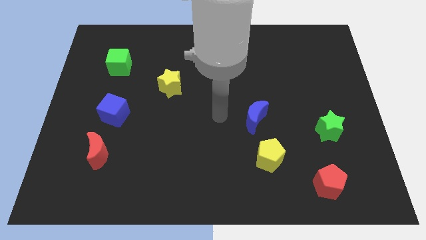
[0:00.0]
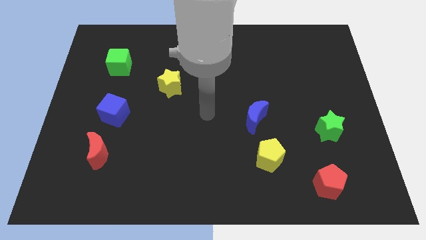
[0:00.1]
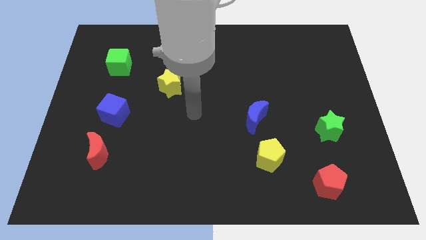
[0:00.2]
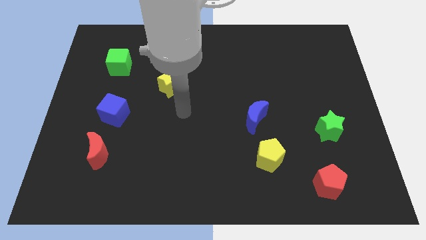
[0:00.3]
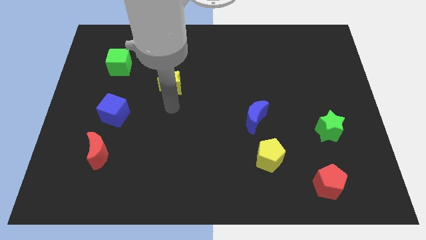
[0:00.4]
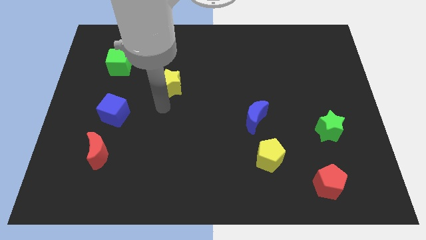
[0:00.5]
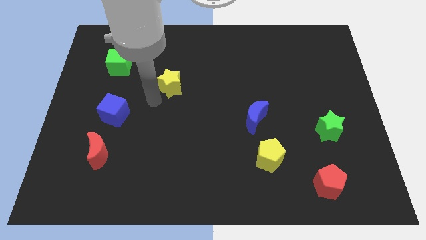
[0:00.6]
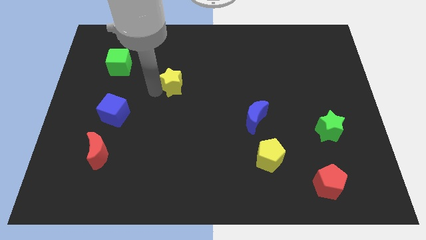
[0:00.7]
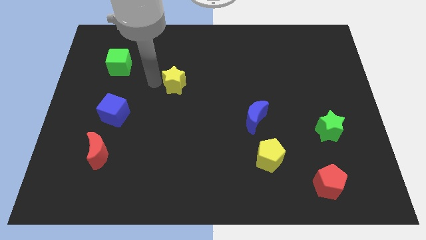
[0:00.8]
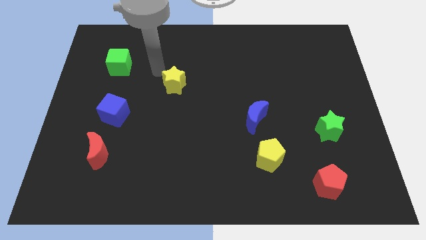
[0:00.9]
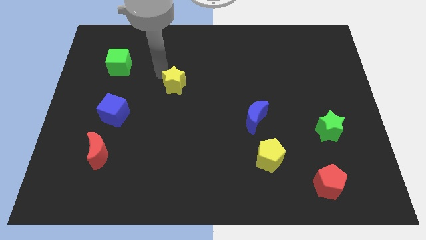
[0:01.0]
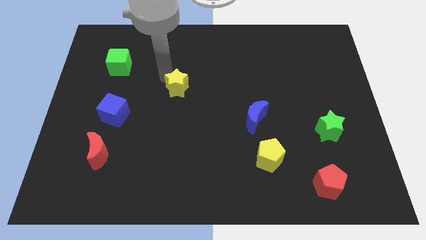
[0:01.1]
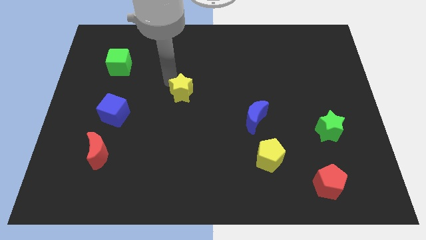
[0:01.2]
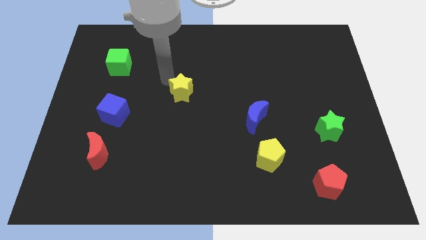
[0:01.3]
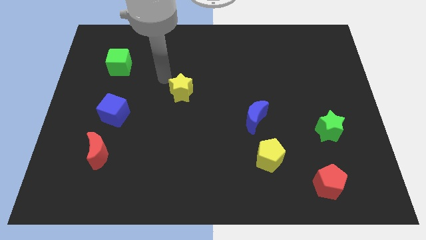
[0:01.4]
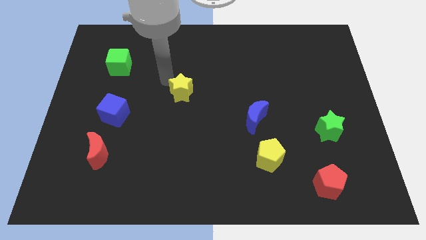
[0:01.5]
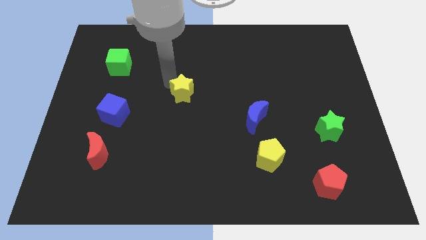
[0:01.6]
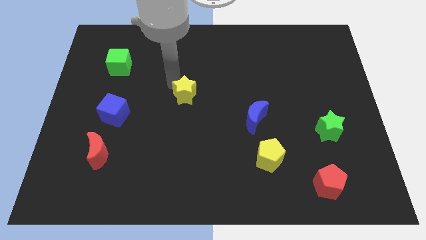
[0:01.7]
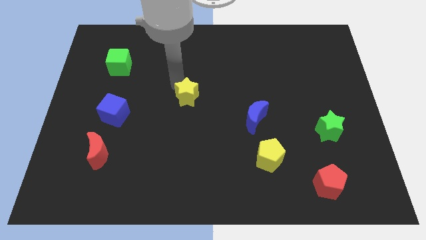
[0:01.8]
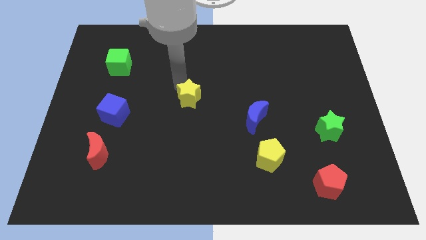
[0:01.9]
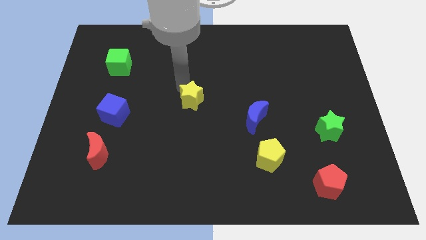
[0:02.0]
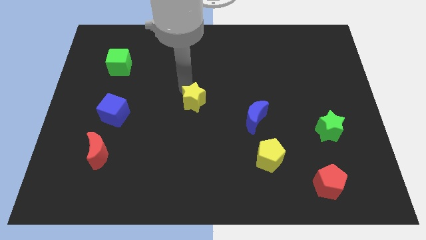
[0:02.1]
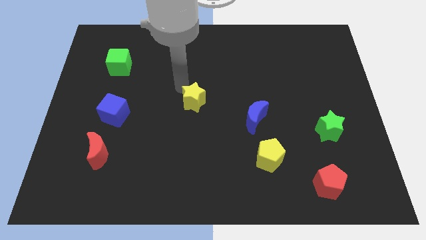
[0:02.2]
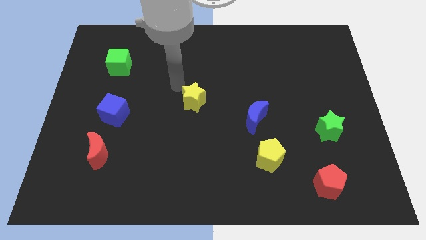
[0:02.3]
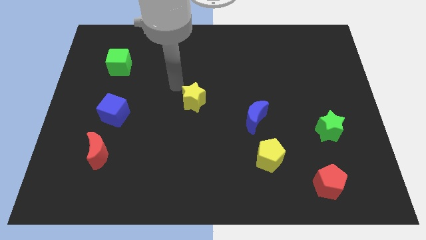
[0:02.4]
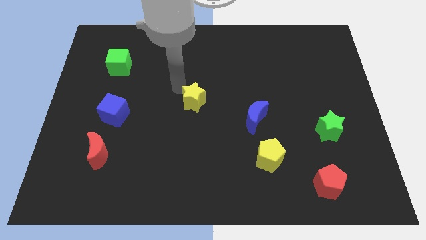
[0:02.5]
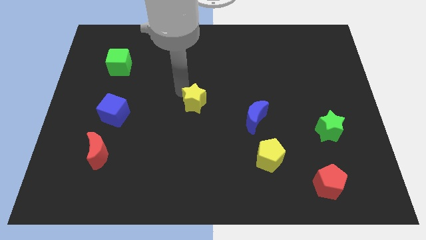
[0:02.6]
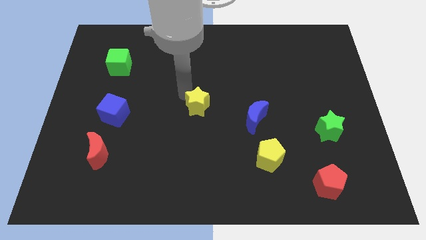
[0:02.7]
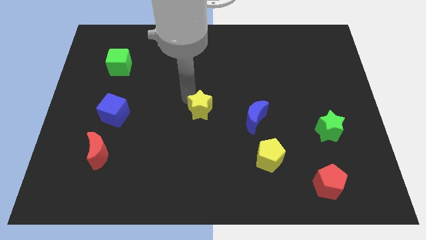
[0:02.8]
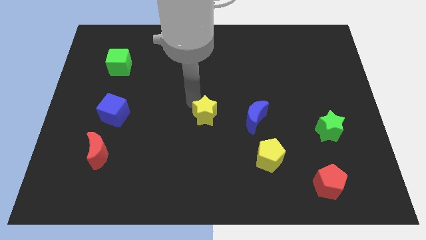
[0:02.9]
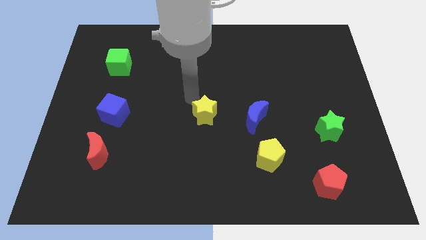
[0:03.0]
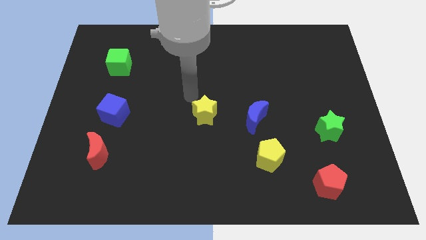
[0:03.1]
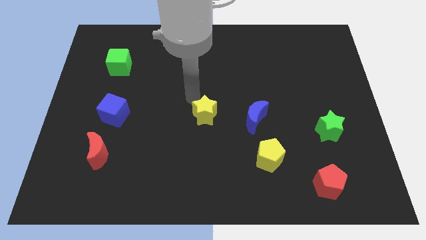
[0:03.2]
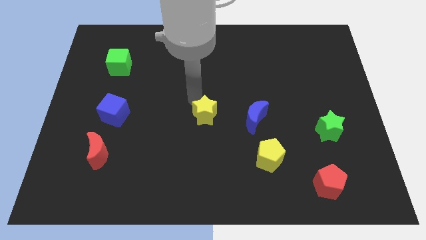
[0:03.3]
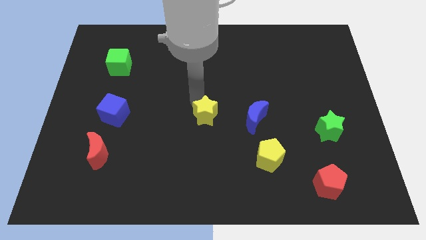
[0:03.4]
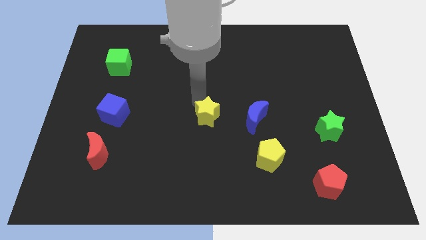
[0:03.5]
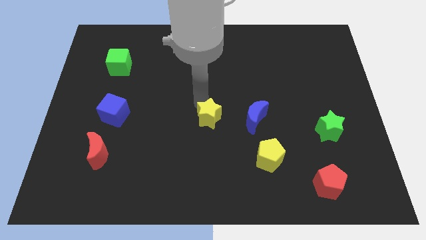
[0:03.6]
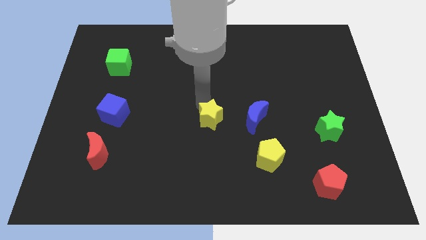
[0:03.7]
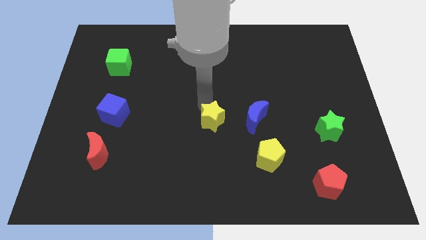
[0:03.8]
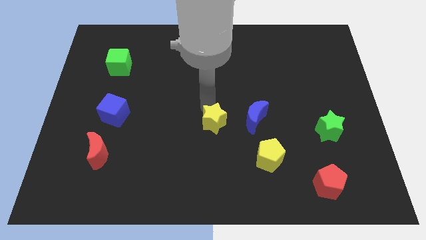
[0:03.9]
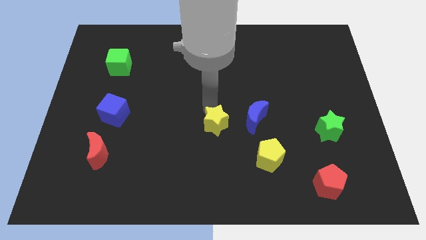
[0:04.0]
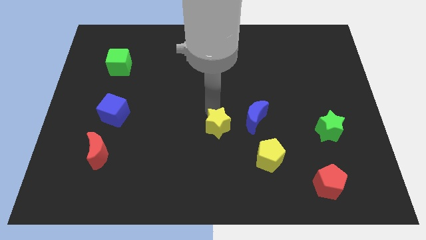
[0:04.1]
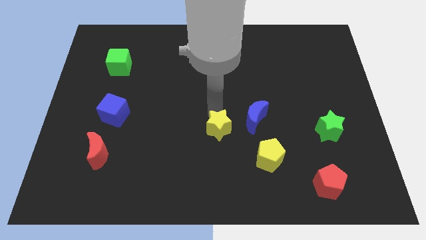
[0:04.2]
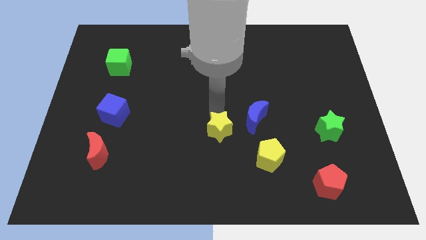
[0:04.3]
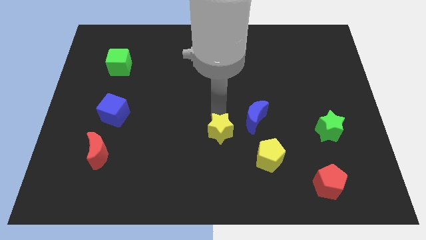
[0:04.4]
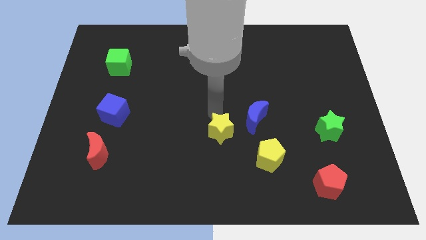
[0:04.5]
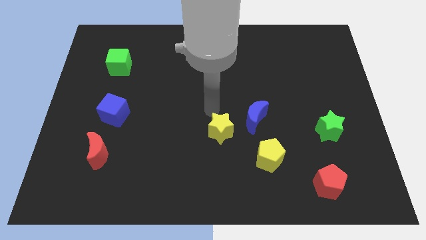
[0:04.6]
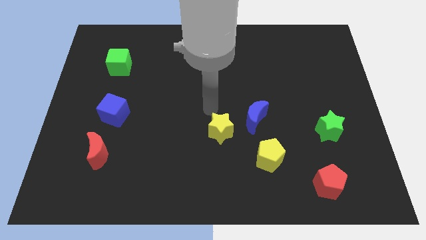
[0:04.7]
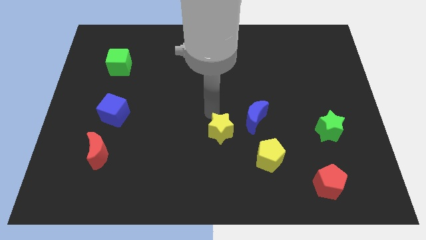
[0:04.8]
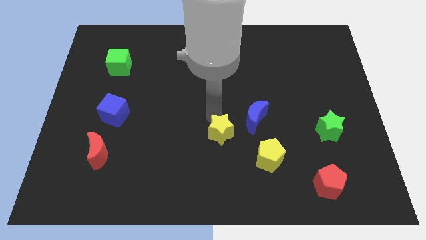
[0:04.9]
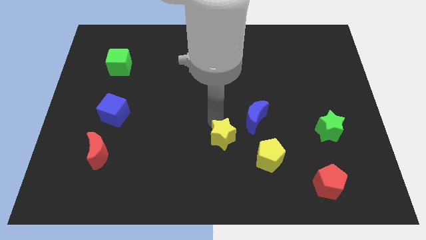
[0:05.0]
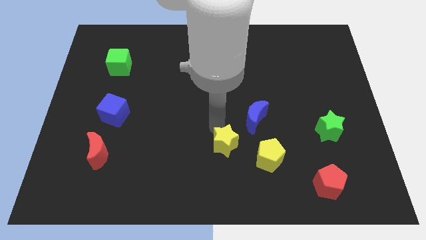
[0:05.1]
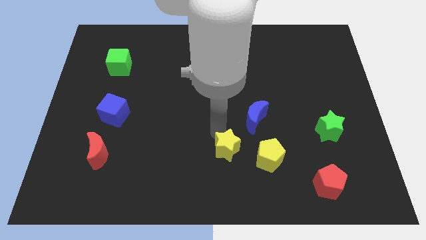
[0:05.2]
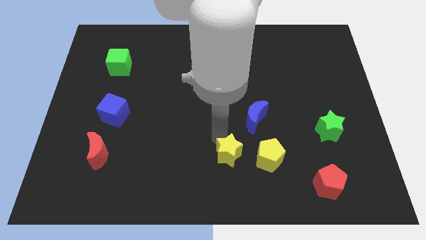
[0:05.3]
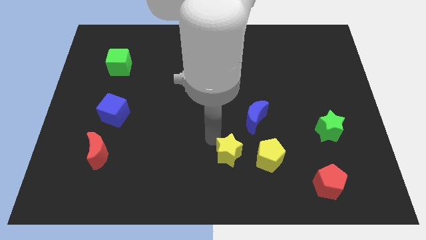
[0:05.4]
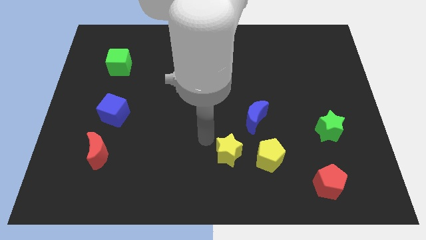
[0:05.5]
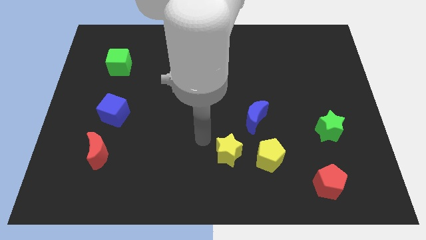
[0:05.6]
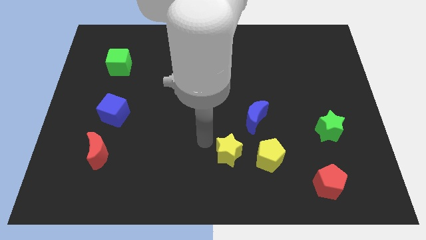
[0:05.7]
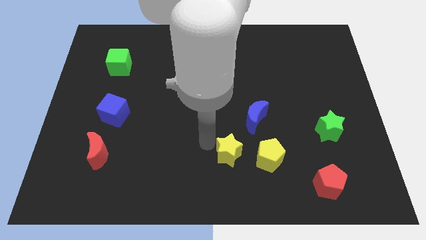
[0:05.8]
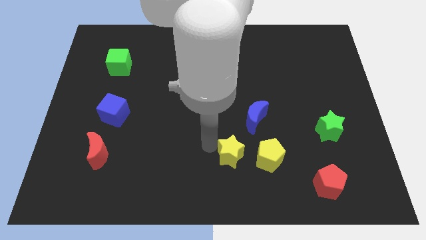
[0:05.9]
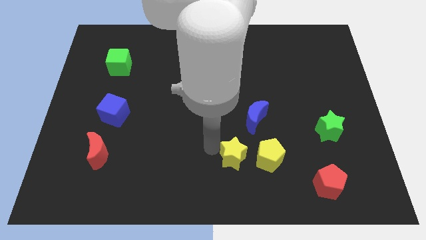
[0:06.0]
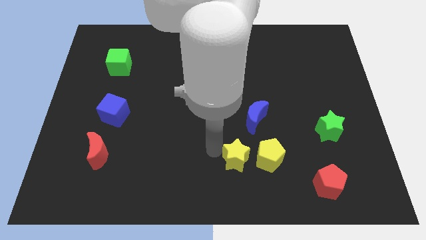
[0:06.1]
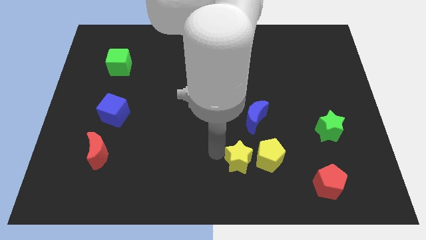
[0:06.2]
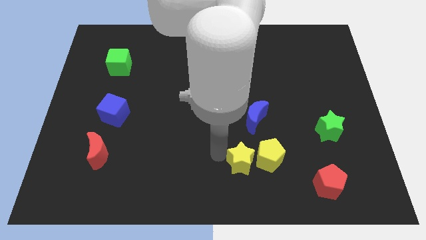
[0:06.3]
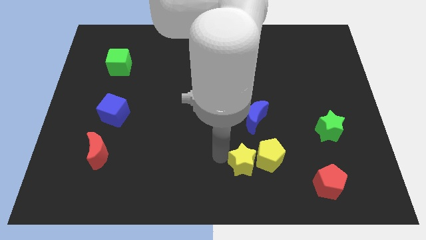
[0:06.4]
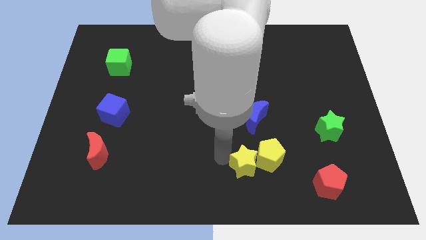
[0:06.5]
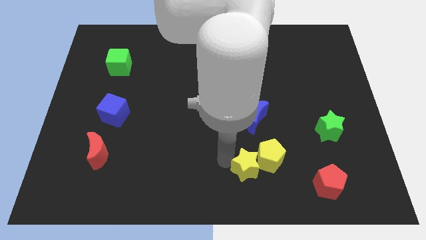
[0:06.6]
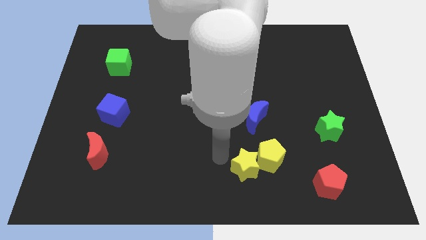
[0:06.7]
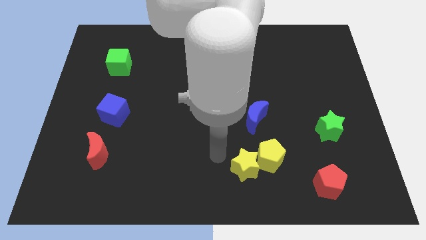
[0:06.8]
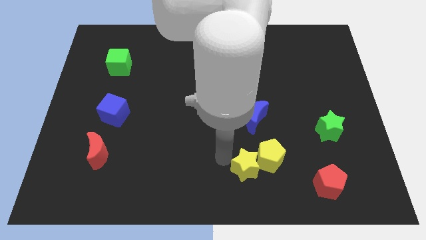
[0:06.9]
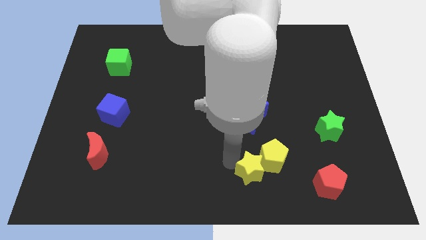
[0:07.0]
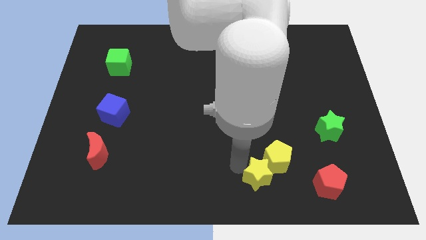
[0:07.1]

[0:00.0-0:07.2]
slide the yellow star to the left side of the red pentagon
